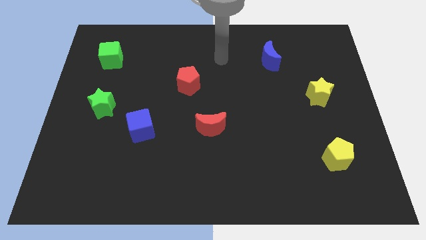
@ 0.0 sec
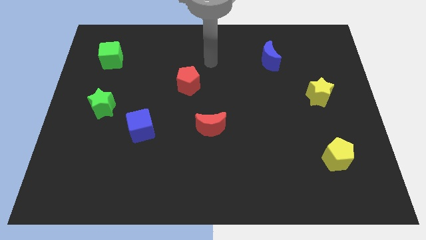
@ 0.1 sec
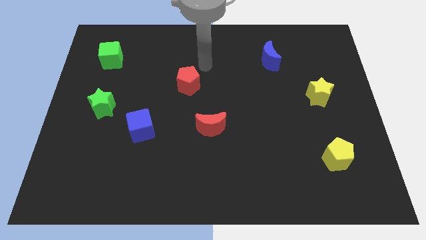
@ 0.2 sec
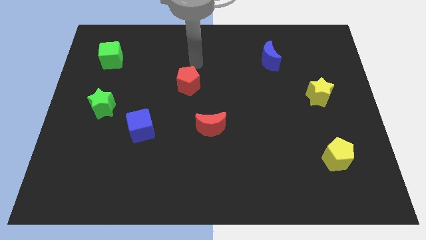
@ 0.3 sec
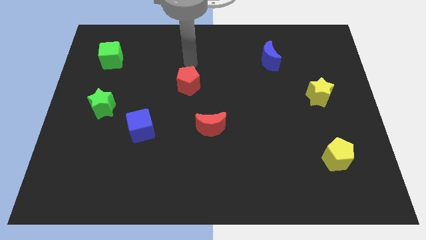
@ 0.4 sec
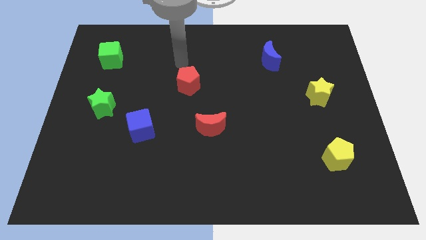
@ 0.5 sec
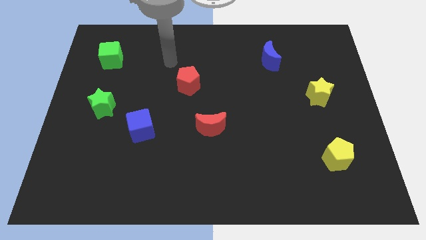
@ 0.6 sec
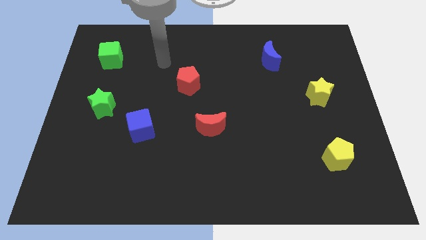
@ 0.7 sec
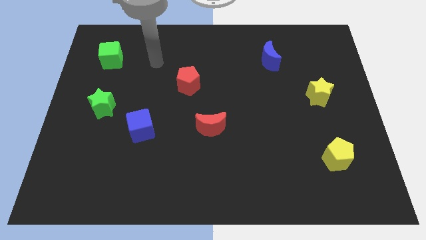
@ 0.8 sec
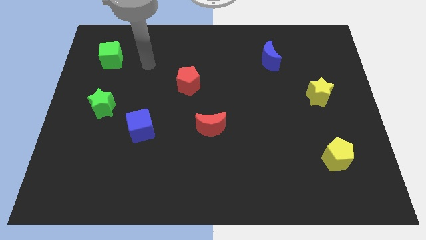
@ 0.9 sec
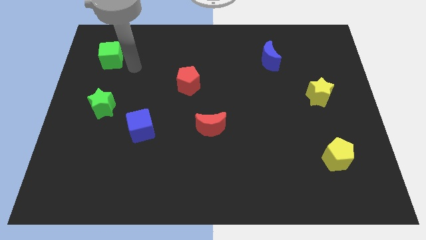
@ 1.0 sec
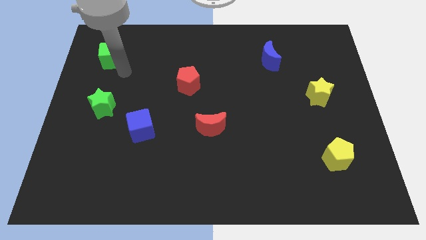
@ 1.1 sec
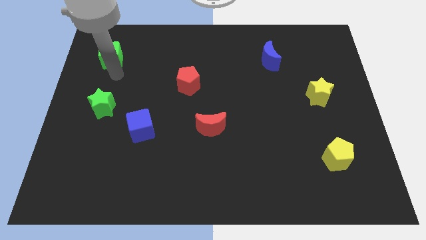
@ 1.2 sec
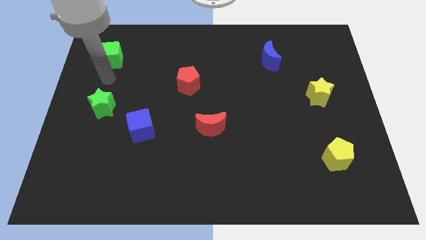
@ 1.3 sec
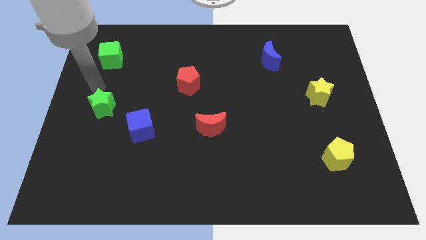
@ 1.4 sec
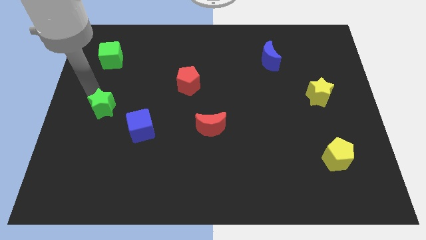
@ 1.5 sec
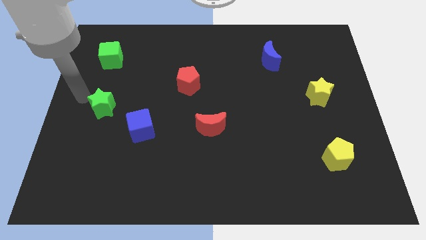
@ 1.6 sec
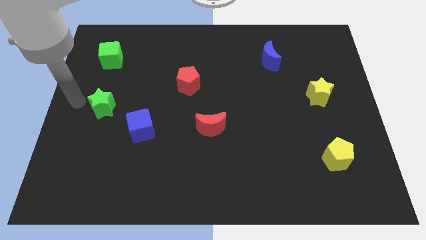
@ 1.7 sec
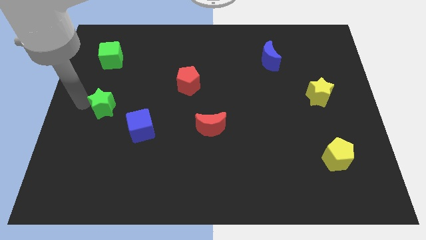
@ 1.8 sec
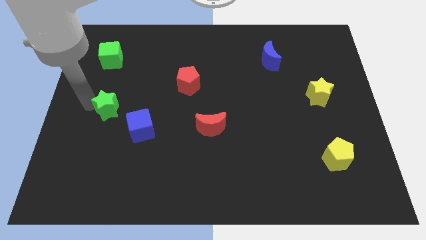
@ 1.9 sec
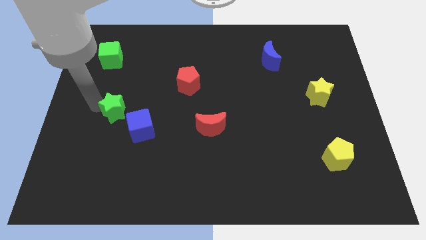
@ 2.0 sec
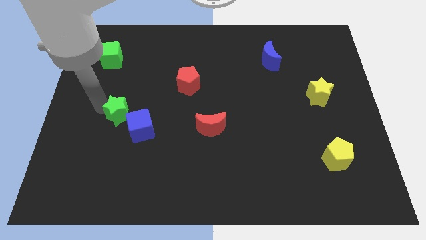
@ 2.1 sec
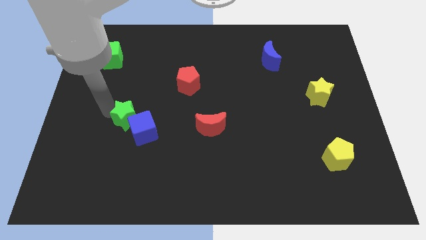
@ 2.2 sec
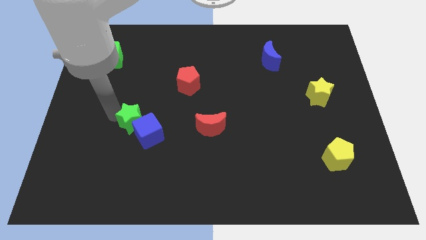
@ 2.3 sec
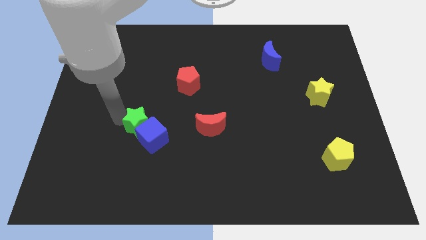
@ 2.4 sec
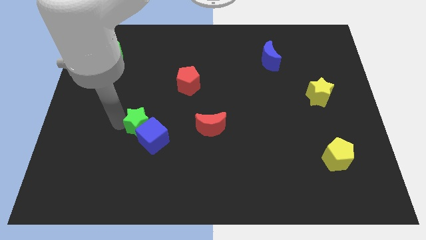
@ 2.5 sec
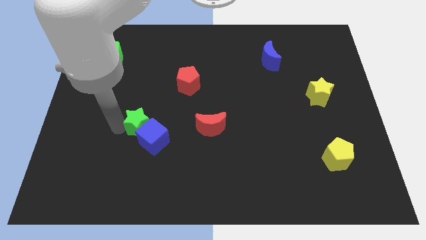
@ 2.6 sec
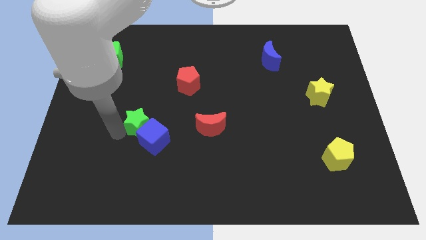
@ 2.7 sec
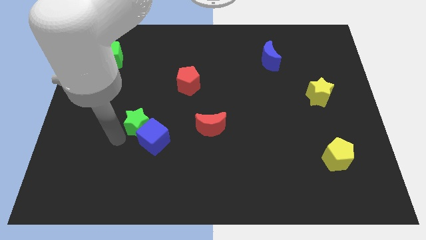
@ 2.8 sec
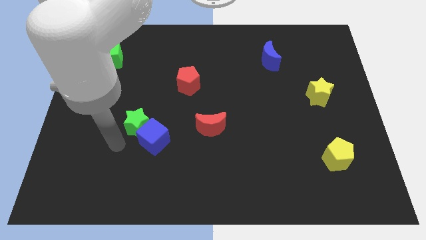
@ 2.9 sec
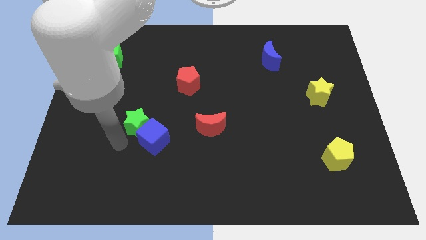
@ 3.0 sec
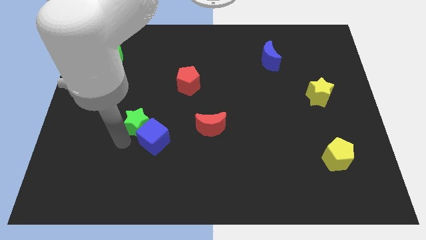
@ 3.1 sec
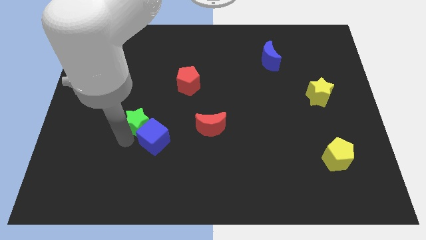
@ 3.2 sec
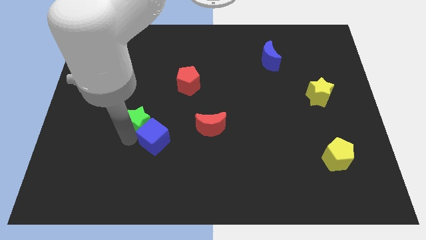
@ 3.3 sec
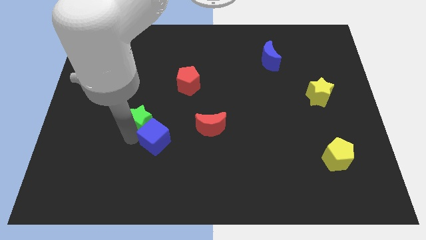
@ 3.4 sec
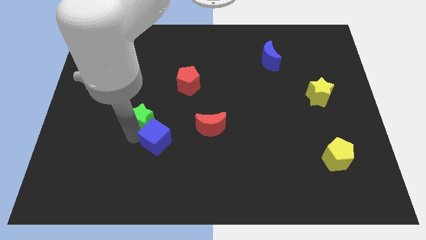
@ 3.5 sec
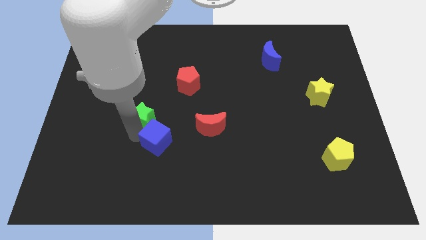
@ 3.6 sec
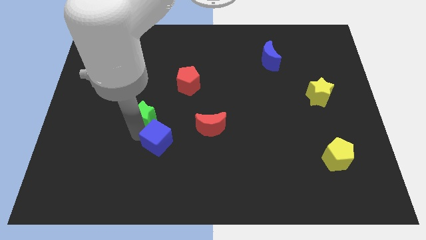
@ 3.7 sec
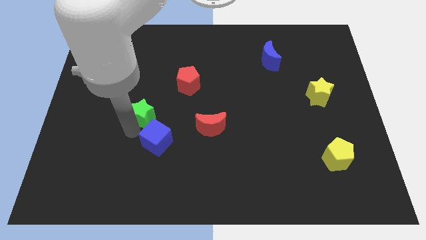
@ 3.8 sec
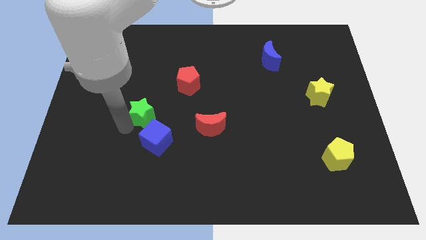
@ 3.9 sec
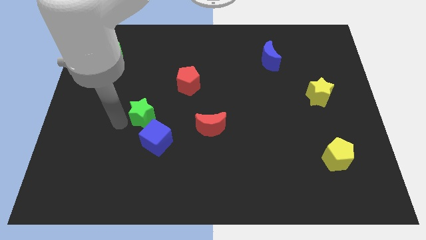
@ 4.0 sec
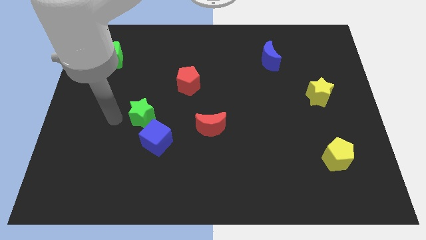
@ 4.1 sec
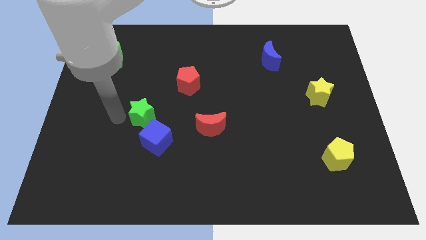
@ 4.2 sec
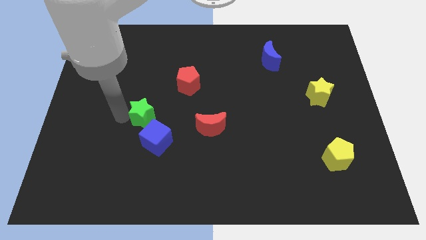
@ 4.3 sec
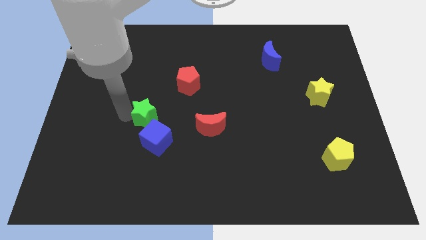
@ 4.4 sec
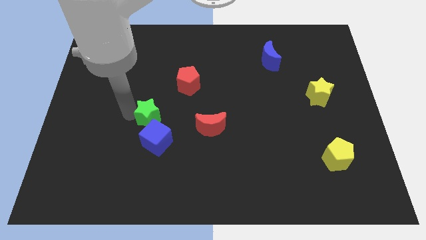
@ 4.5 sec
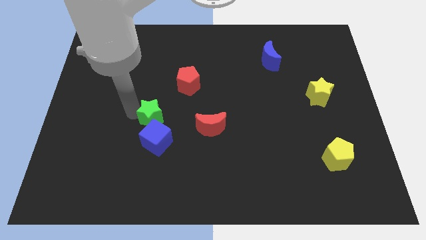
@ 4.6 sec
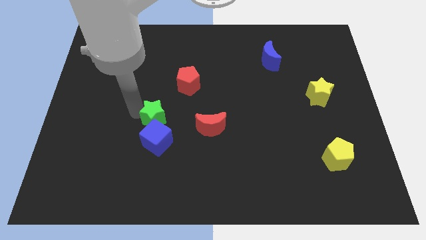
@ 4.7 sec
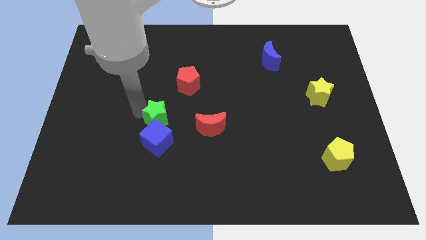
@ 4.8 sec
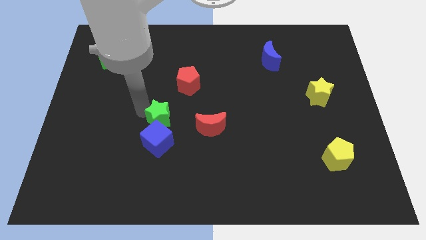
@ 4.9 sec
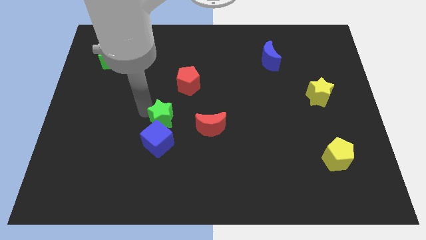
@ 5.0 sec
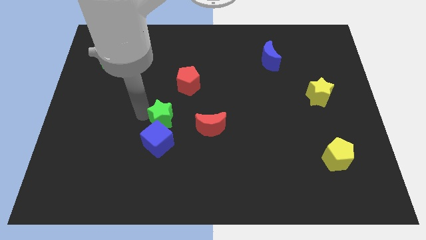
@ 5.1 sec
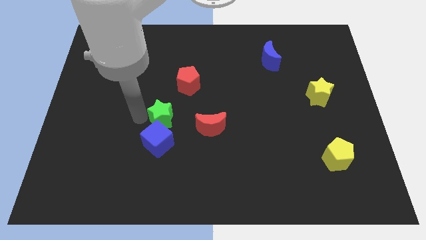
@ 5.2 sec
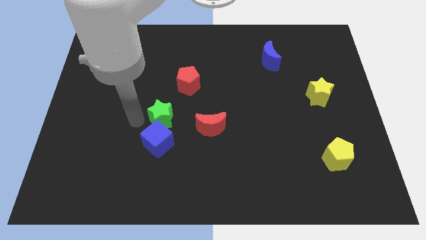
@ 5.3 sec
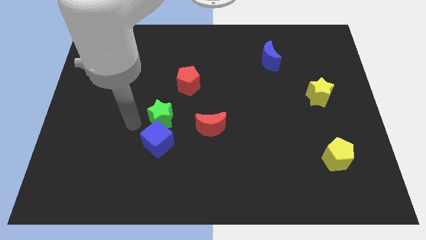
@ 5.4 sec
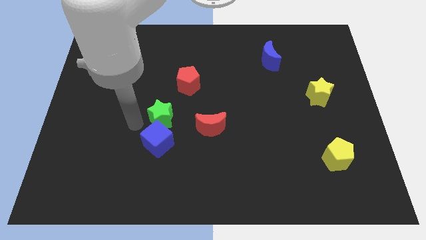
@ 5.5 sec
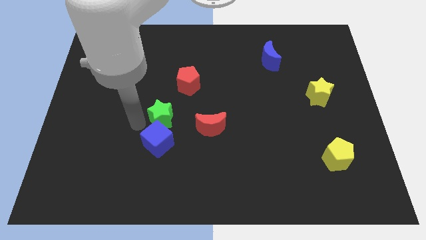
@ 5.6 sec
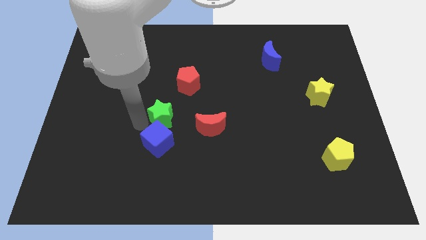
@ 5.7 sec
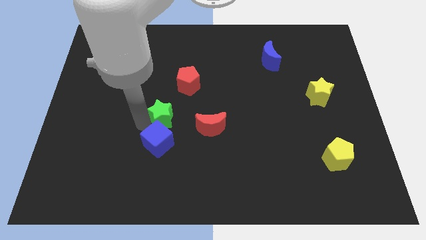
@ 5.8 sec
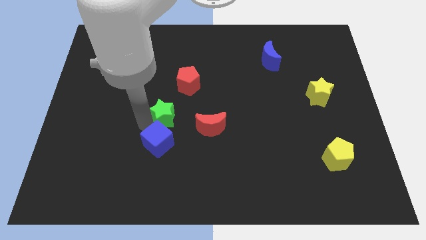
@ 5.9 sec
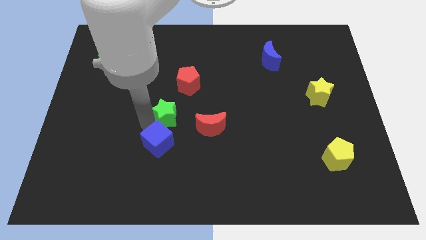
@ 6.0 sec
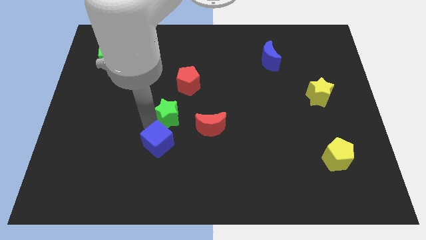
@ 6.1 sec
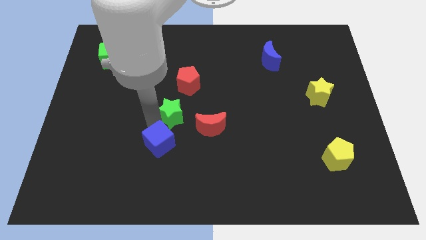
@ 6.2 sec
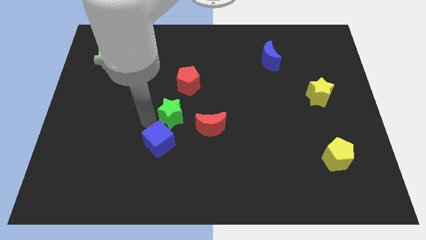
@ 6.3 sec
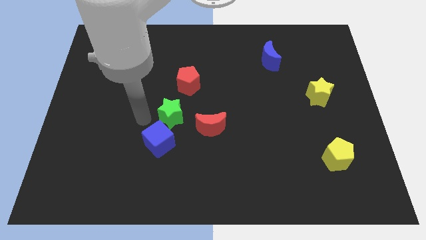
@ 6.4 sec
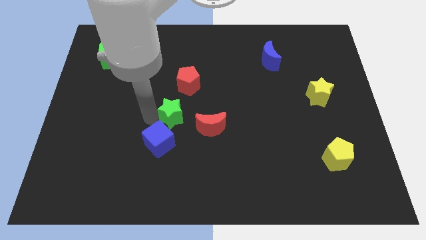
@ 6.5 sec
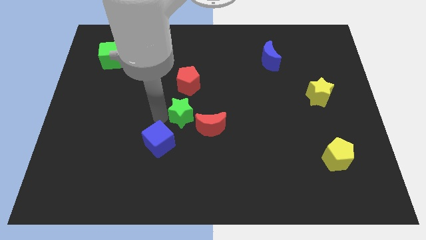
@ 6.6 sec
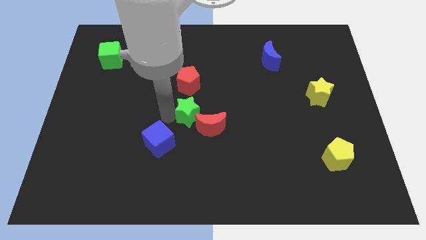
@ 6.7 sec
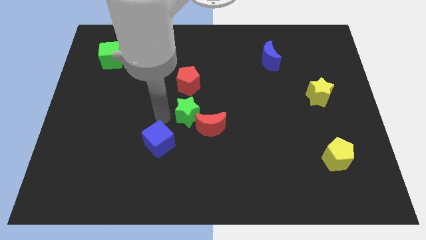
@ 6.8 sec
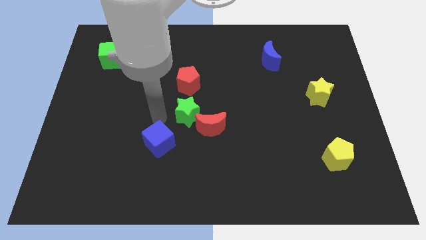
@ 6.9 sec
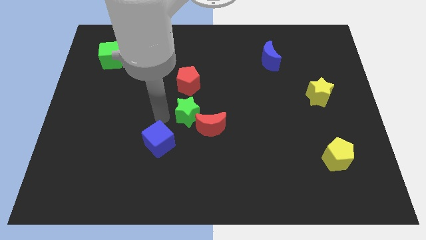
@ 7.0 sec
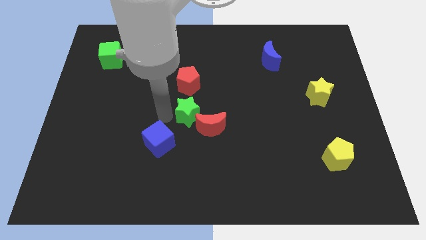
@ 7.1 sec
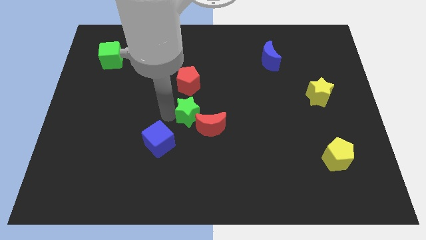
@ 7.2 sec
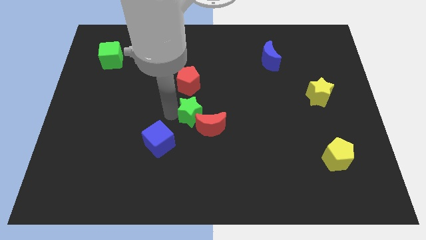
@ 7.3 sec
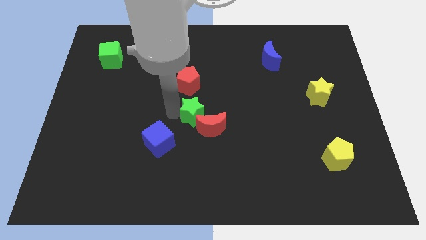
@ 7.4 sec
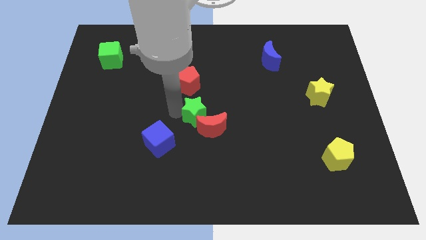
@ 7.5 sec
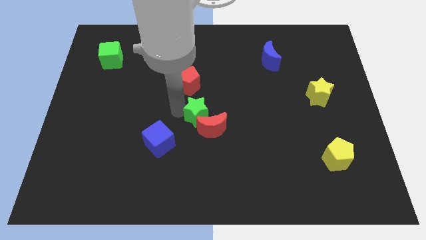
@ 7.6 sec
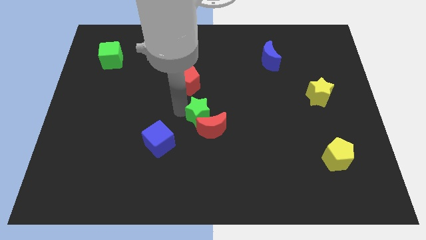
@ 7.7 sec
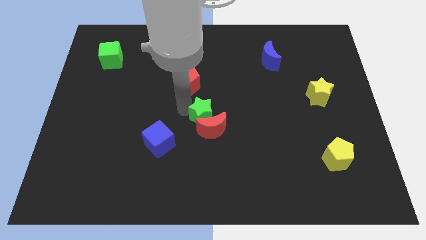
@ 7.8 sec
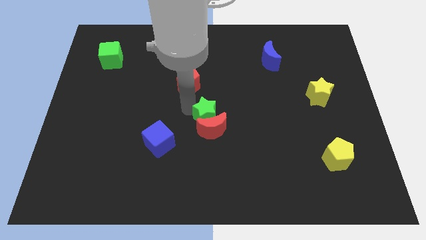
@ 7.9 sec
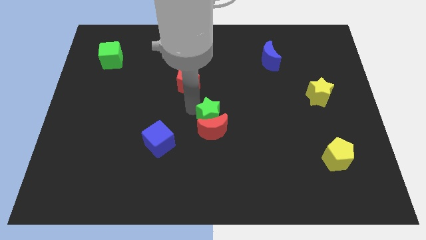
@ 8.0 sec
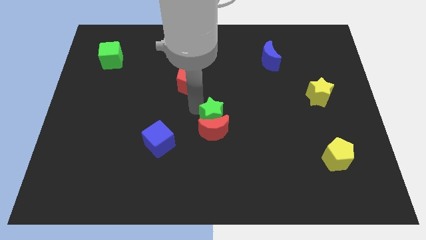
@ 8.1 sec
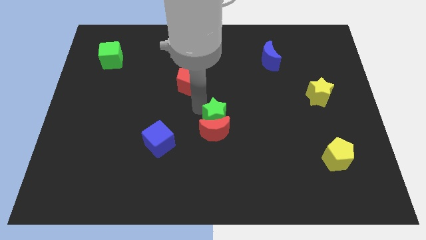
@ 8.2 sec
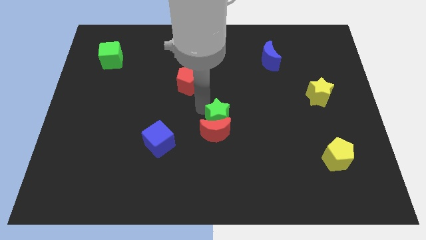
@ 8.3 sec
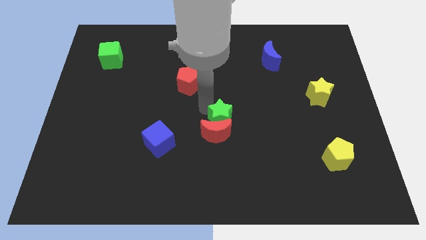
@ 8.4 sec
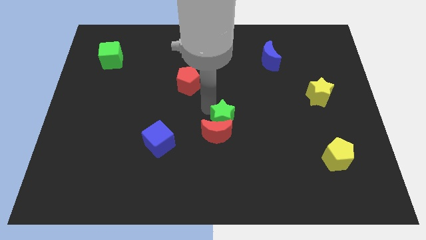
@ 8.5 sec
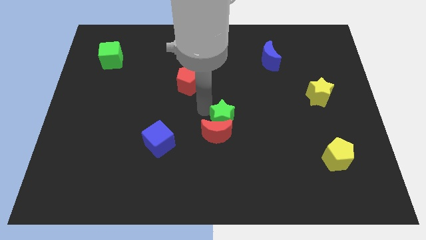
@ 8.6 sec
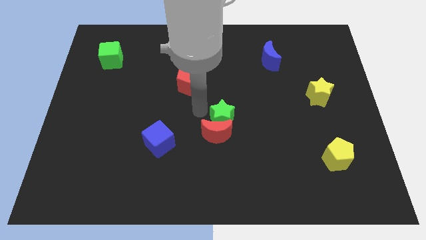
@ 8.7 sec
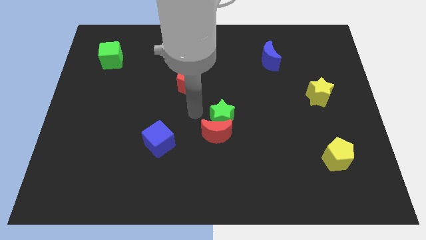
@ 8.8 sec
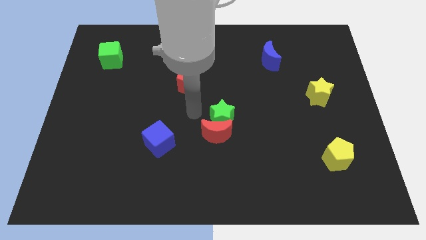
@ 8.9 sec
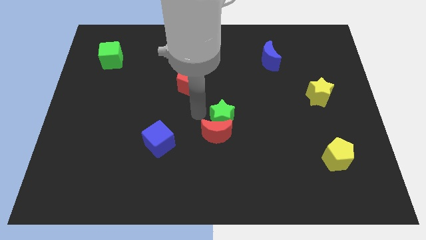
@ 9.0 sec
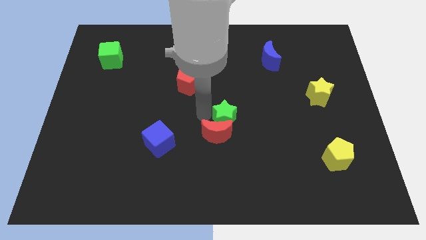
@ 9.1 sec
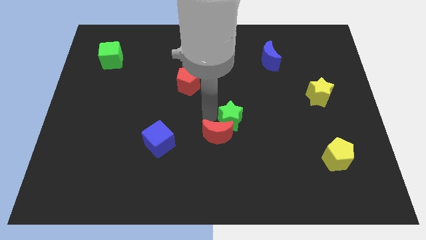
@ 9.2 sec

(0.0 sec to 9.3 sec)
slide the green star right of the red moon
